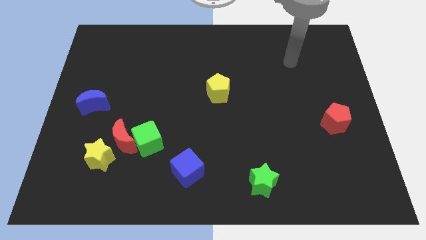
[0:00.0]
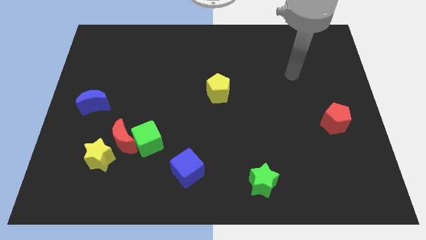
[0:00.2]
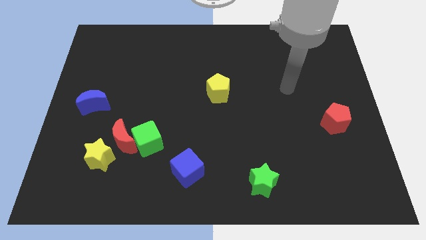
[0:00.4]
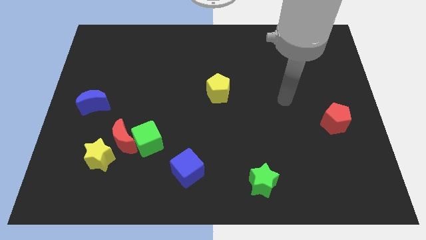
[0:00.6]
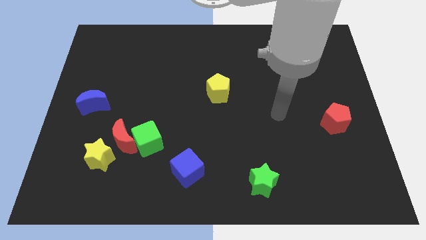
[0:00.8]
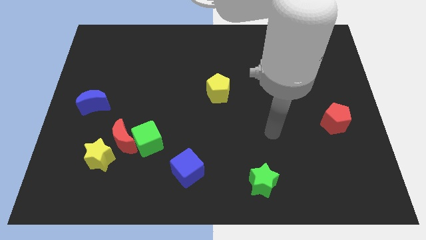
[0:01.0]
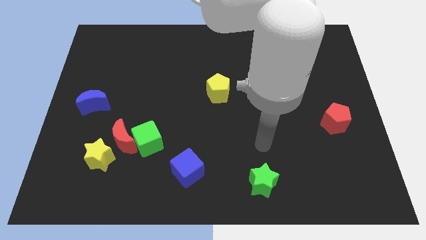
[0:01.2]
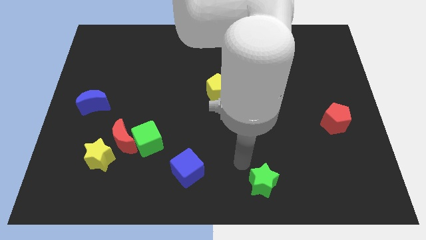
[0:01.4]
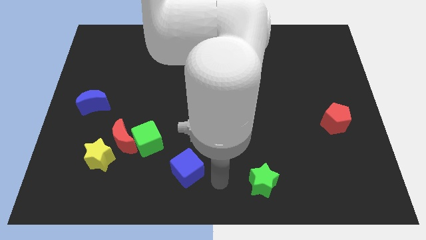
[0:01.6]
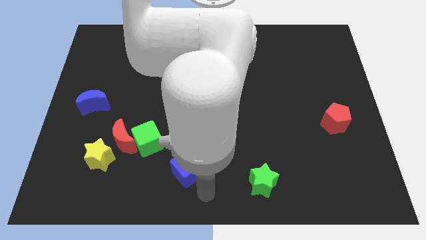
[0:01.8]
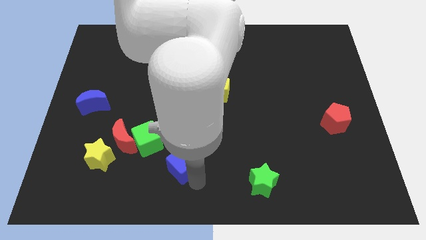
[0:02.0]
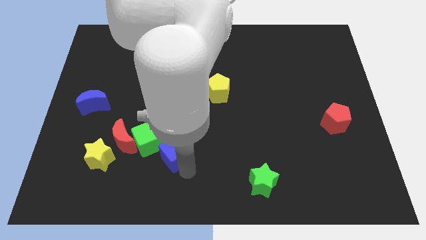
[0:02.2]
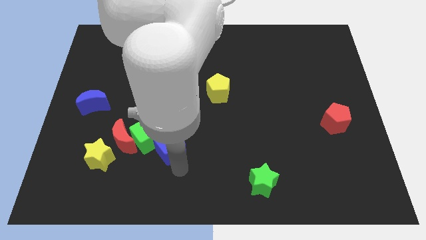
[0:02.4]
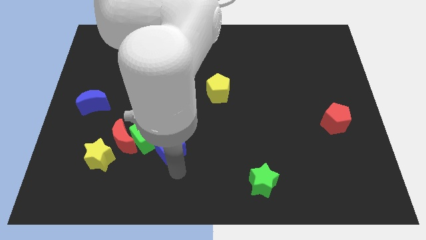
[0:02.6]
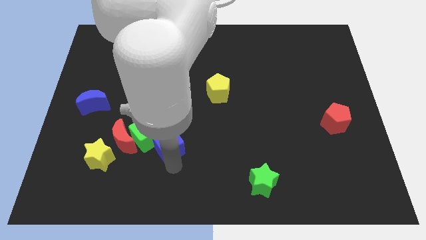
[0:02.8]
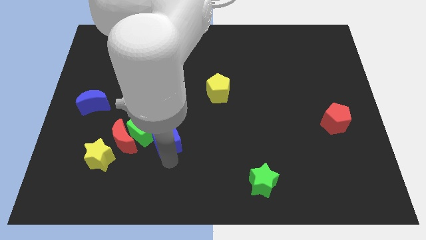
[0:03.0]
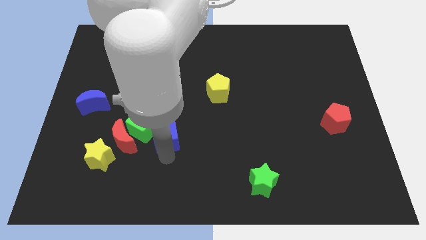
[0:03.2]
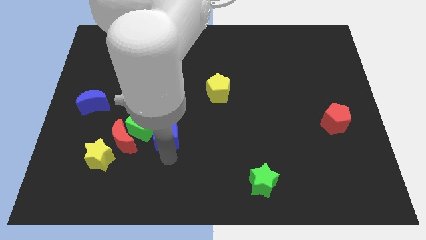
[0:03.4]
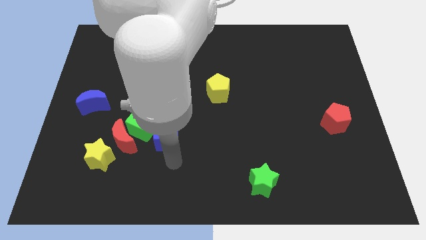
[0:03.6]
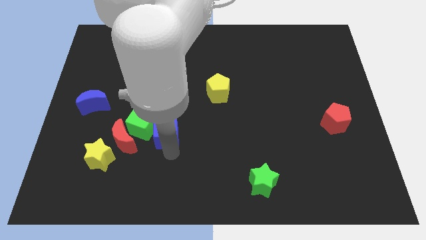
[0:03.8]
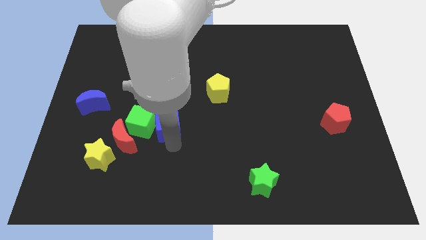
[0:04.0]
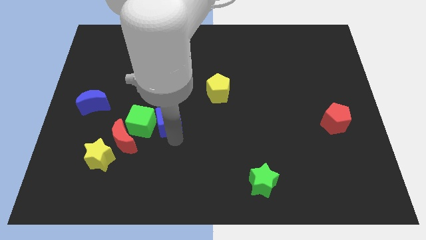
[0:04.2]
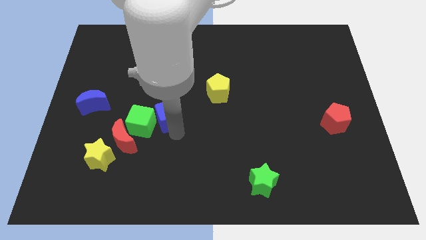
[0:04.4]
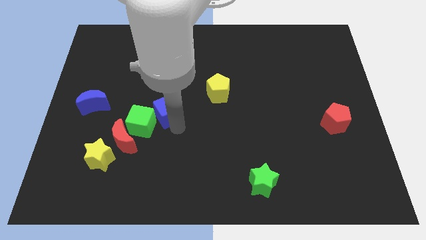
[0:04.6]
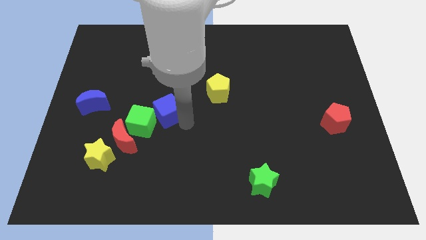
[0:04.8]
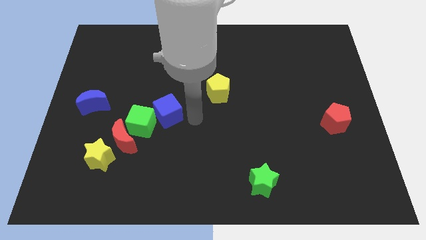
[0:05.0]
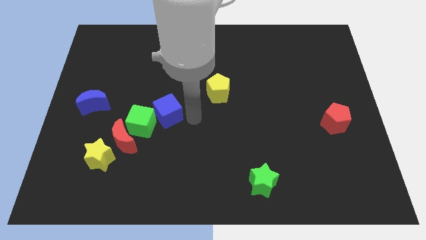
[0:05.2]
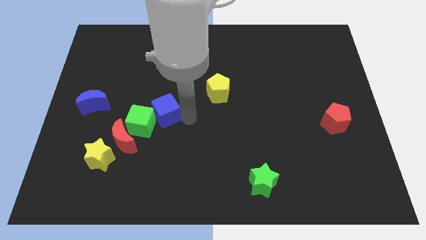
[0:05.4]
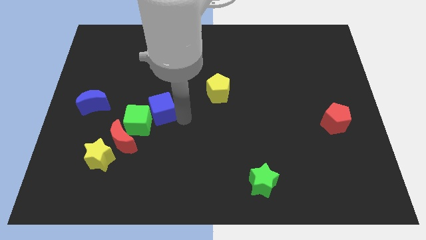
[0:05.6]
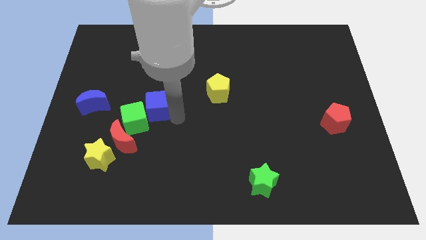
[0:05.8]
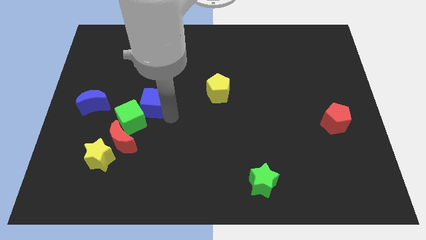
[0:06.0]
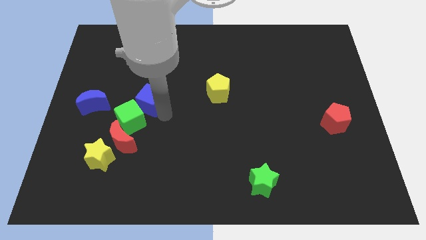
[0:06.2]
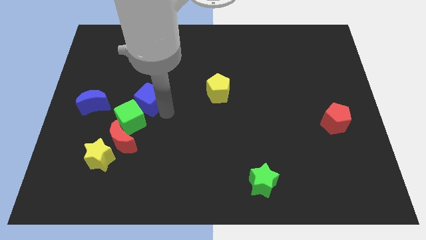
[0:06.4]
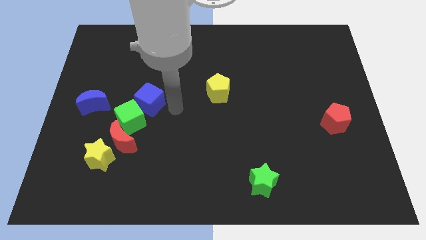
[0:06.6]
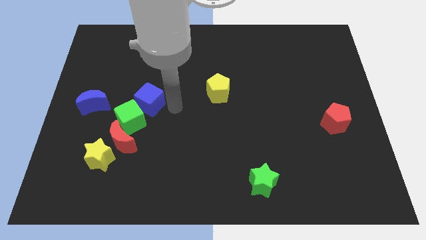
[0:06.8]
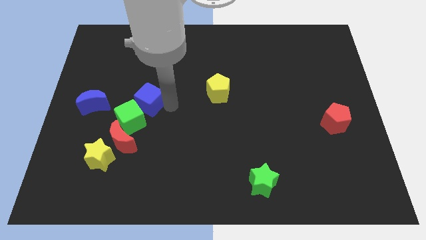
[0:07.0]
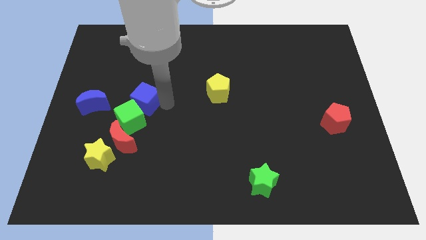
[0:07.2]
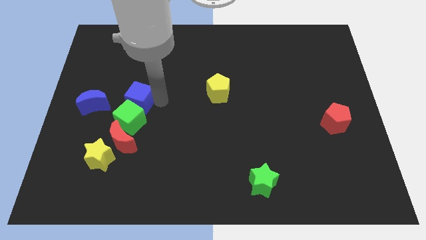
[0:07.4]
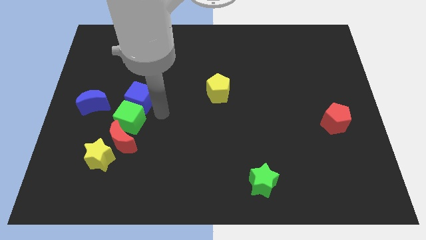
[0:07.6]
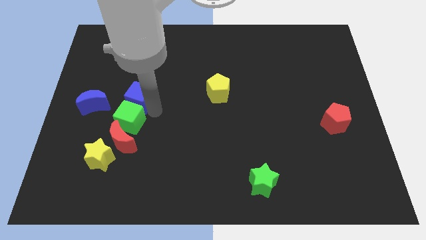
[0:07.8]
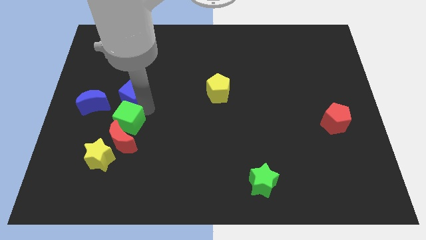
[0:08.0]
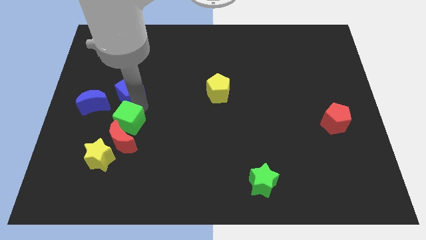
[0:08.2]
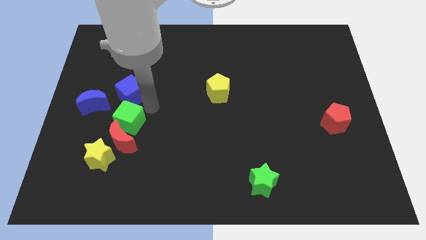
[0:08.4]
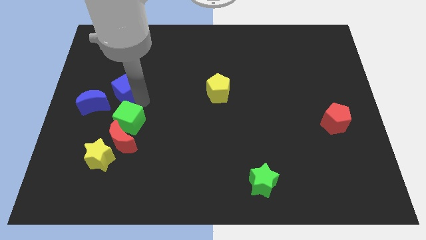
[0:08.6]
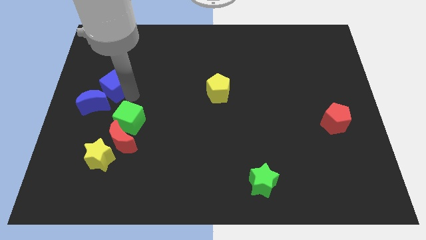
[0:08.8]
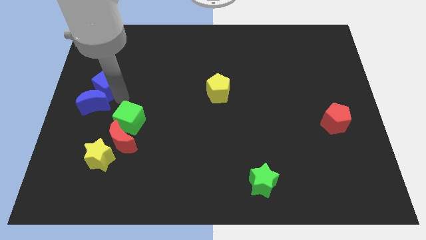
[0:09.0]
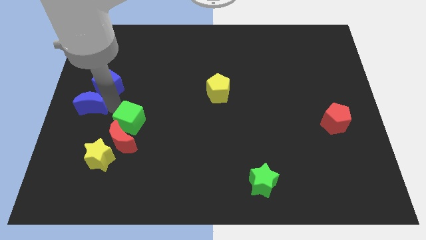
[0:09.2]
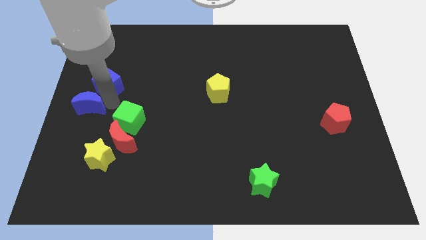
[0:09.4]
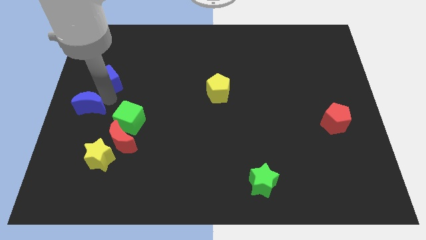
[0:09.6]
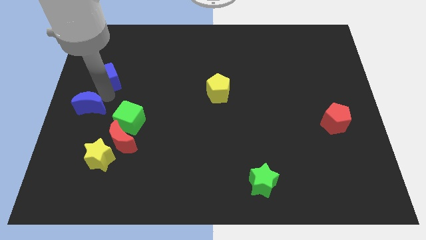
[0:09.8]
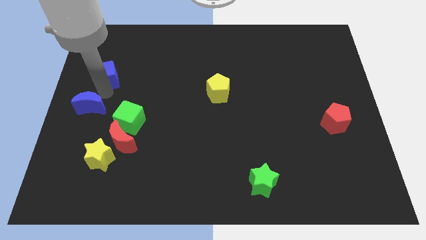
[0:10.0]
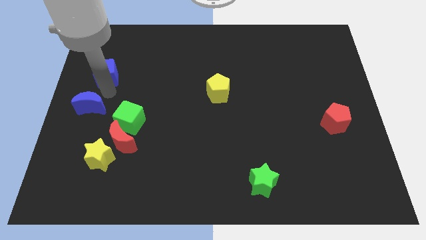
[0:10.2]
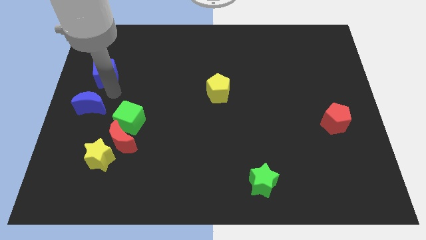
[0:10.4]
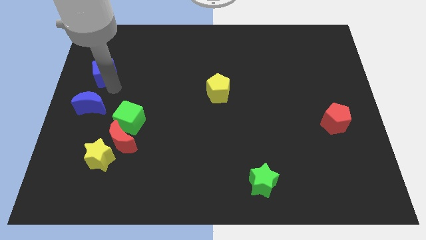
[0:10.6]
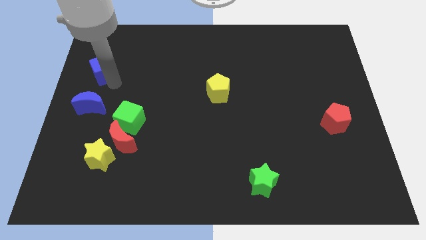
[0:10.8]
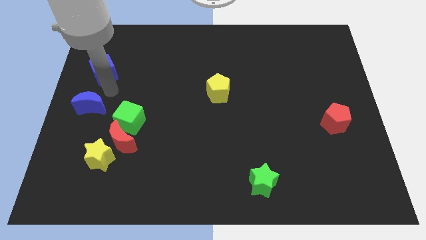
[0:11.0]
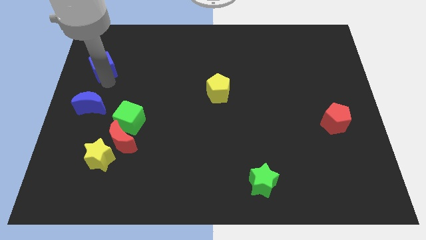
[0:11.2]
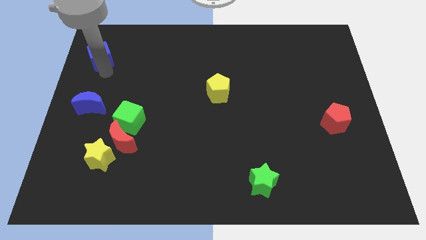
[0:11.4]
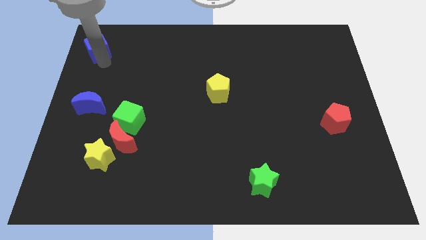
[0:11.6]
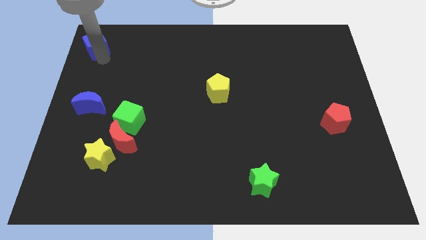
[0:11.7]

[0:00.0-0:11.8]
put the blue cube to the top left corner
